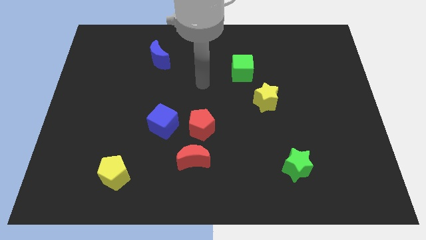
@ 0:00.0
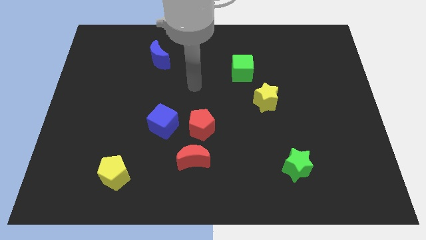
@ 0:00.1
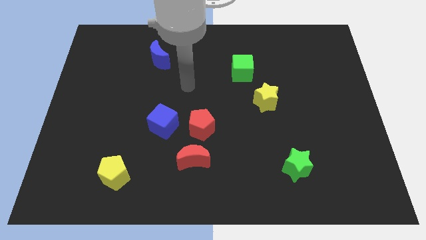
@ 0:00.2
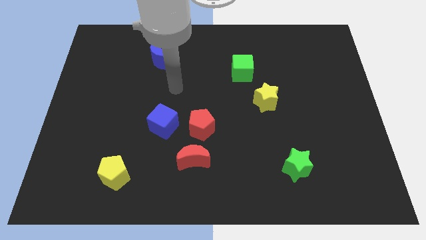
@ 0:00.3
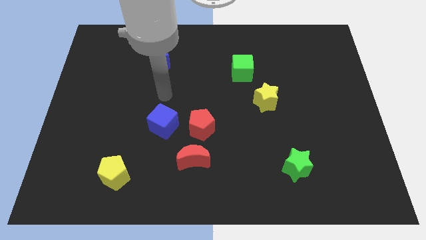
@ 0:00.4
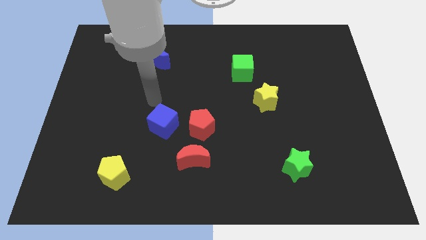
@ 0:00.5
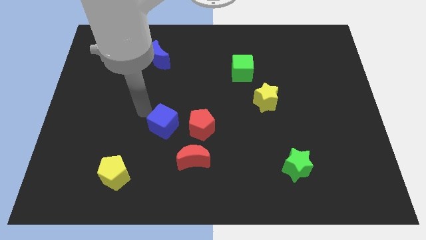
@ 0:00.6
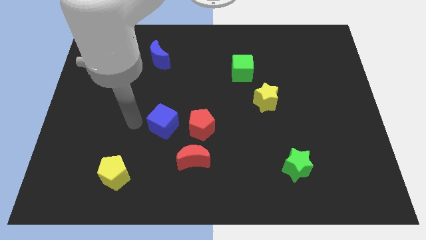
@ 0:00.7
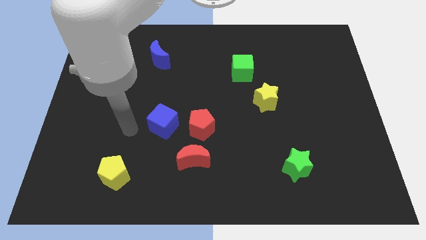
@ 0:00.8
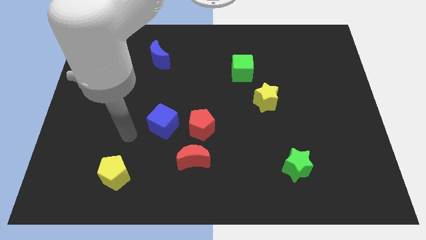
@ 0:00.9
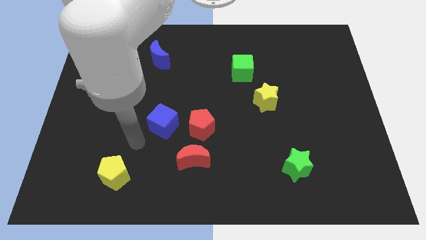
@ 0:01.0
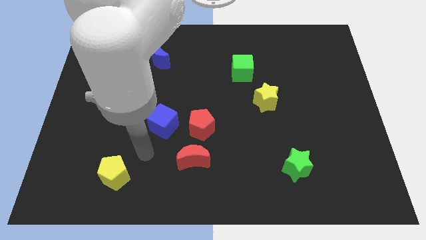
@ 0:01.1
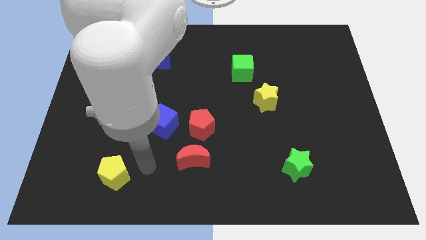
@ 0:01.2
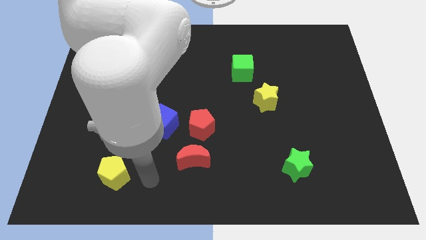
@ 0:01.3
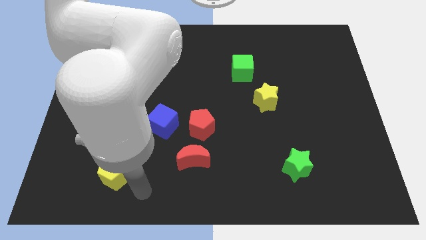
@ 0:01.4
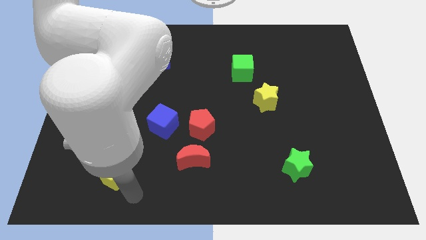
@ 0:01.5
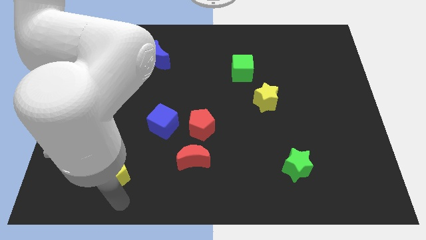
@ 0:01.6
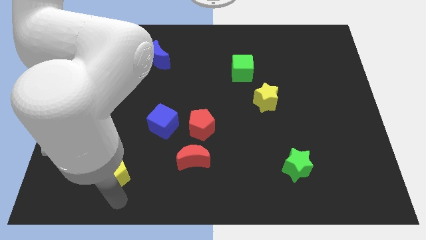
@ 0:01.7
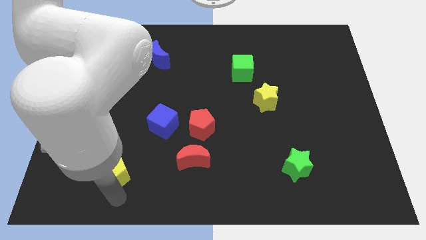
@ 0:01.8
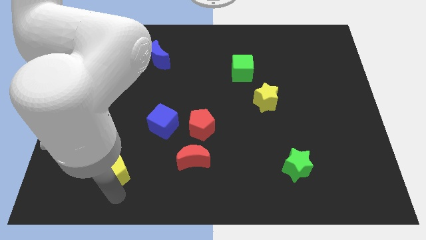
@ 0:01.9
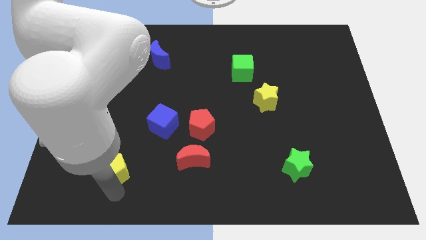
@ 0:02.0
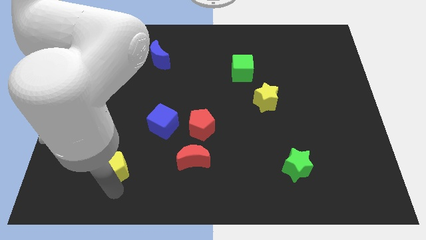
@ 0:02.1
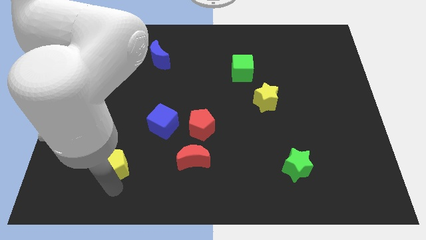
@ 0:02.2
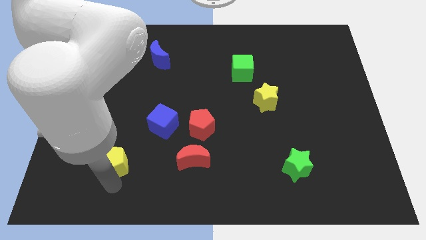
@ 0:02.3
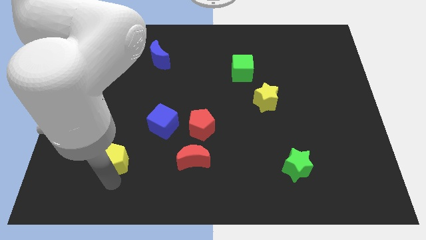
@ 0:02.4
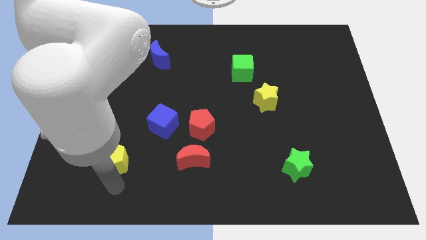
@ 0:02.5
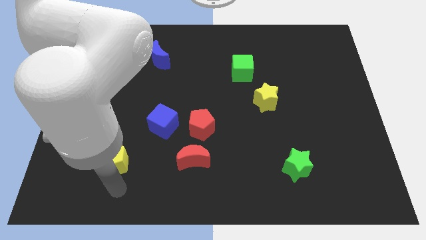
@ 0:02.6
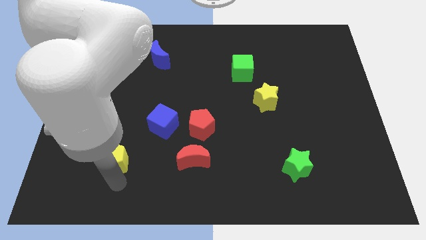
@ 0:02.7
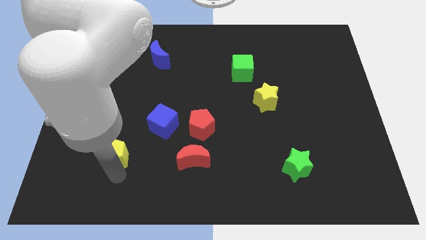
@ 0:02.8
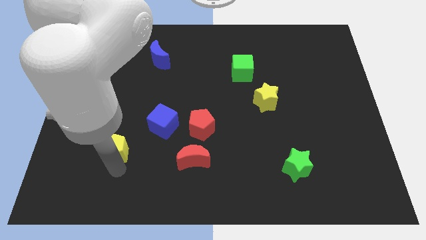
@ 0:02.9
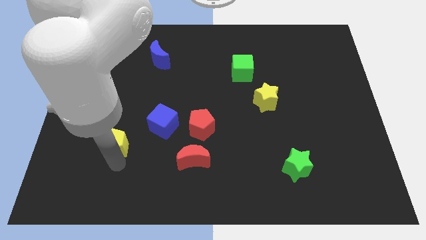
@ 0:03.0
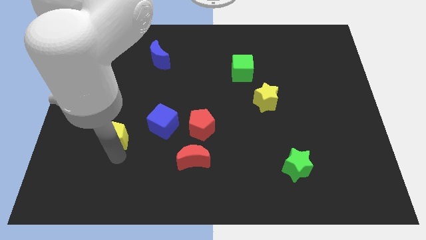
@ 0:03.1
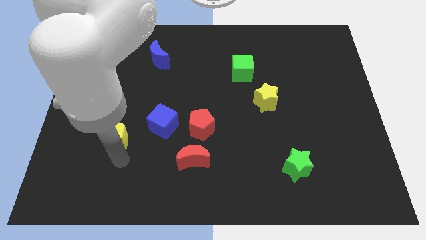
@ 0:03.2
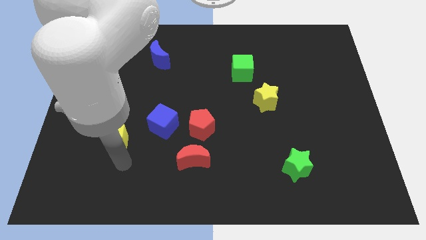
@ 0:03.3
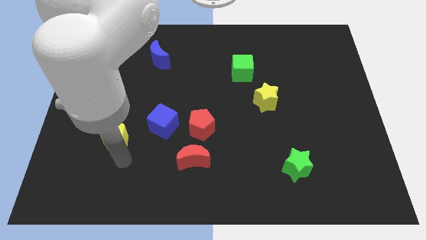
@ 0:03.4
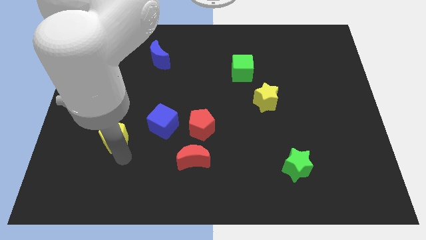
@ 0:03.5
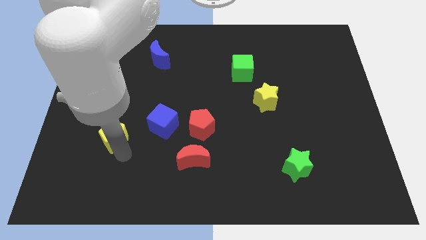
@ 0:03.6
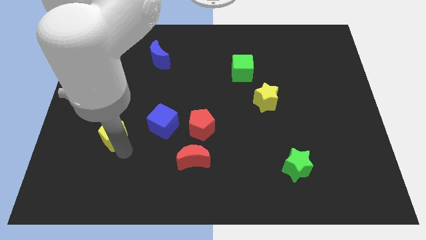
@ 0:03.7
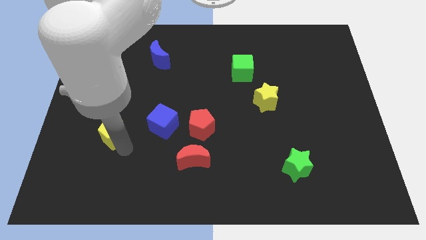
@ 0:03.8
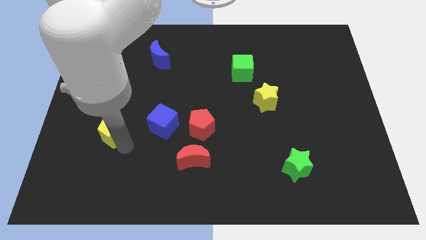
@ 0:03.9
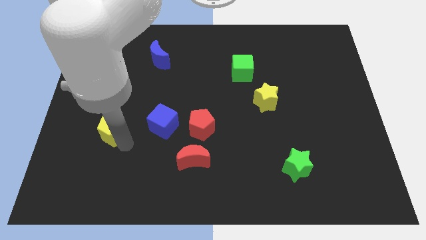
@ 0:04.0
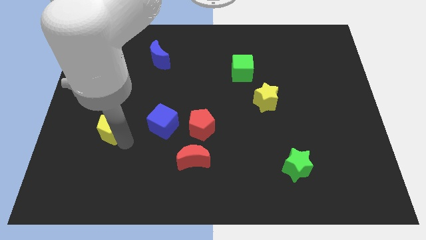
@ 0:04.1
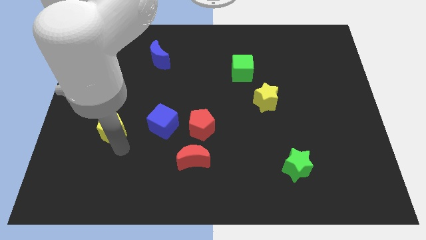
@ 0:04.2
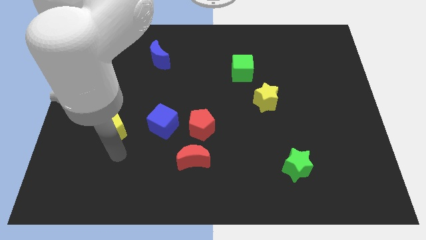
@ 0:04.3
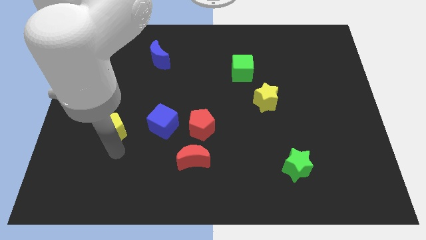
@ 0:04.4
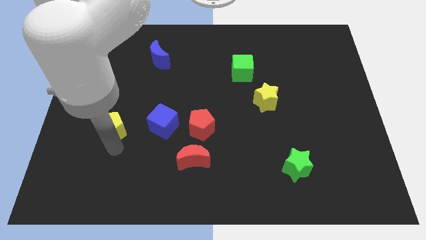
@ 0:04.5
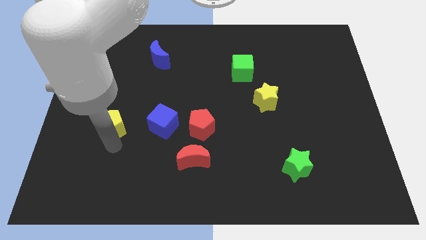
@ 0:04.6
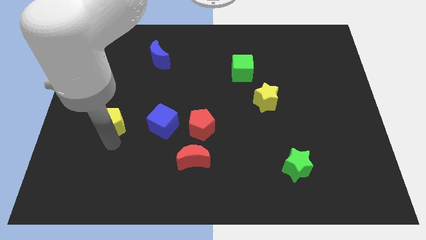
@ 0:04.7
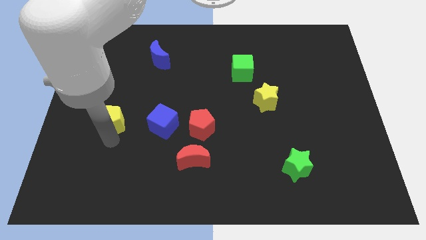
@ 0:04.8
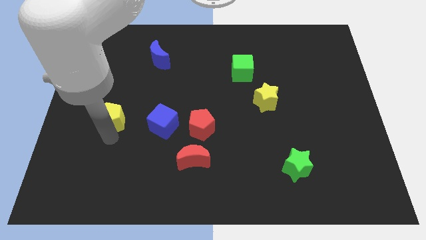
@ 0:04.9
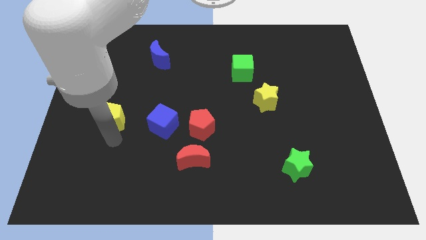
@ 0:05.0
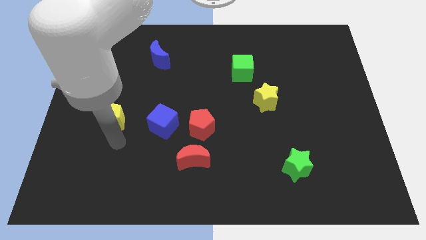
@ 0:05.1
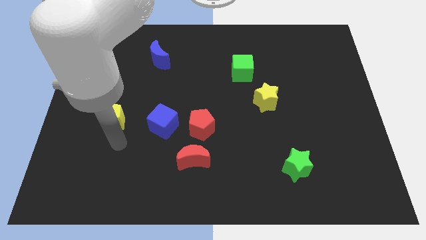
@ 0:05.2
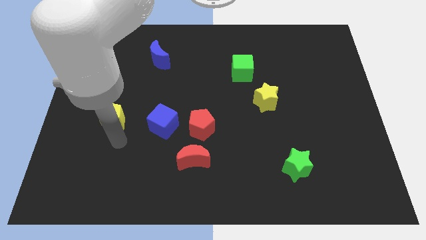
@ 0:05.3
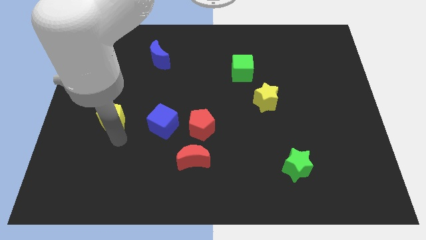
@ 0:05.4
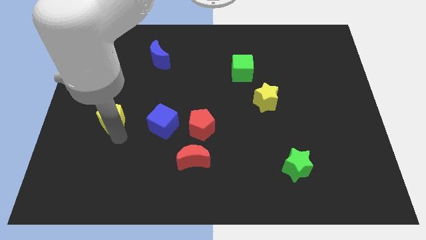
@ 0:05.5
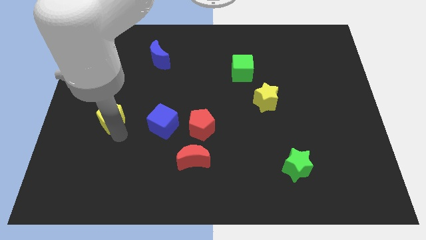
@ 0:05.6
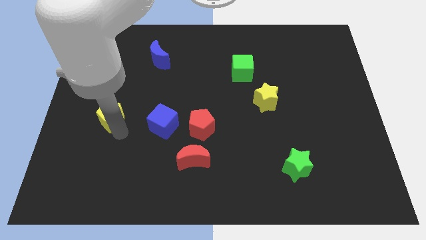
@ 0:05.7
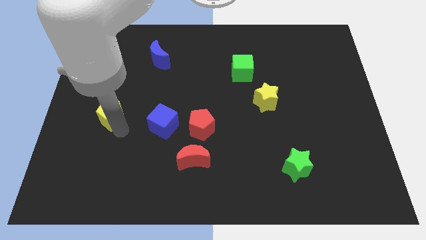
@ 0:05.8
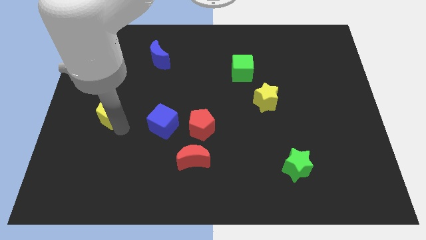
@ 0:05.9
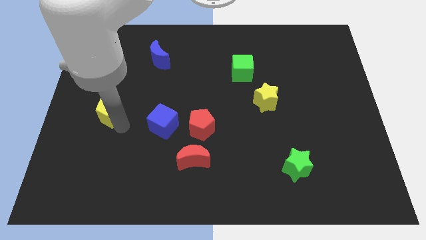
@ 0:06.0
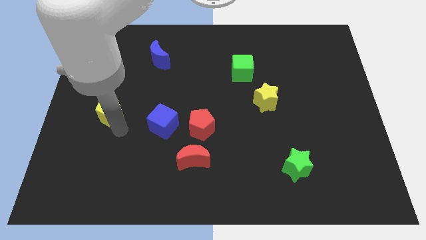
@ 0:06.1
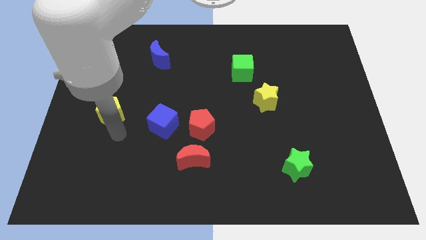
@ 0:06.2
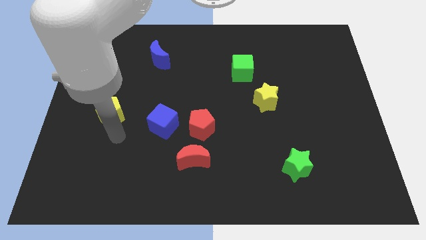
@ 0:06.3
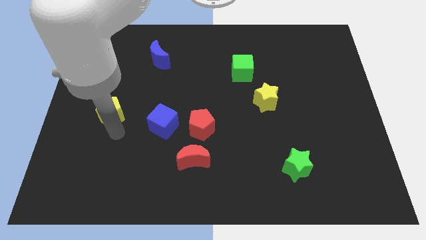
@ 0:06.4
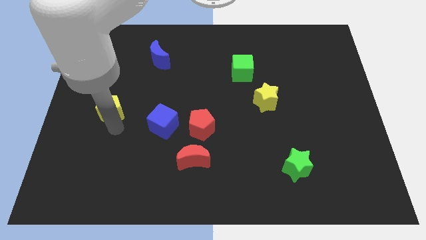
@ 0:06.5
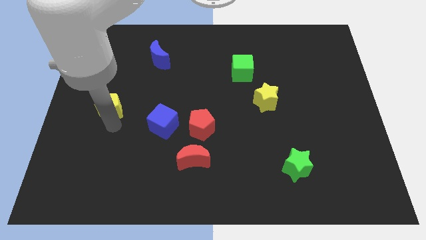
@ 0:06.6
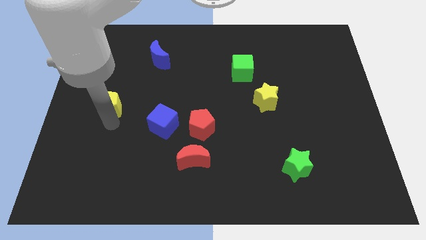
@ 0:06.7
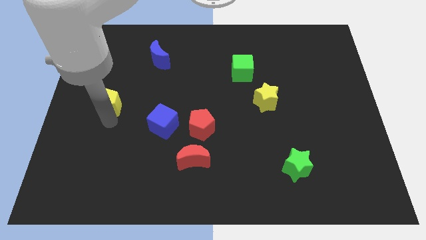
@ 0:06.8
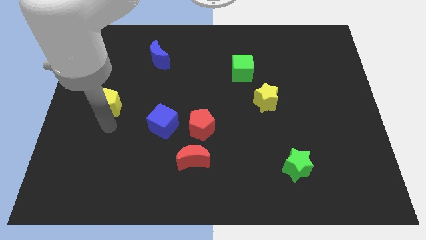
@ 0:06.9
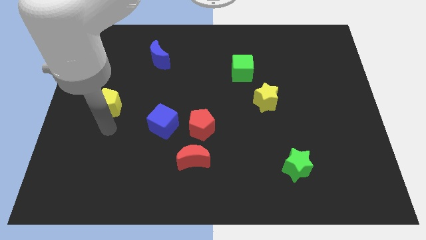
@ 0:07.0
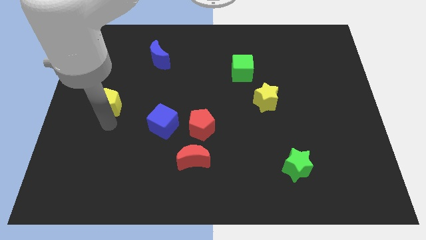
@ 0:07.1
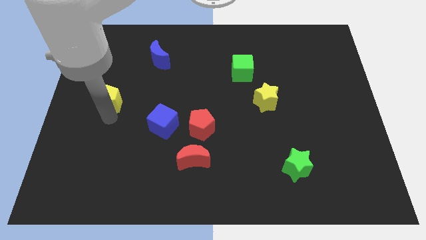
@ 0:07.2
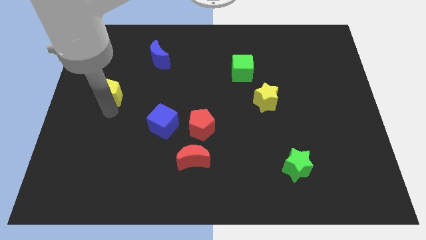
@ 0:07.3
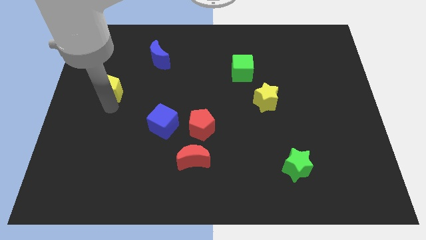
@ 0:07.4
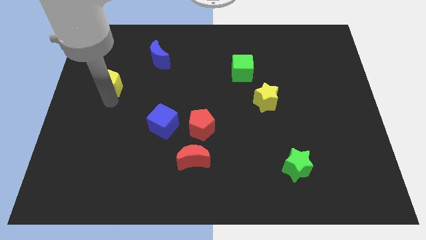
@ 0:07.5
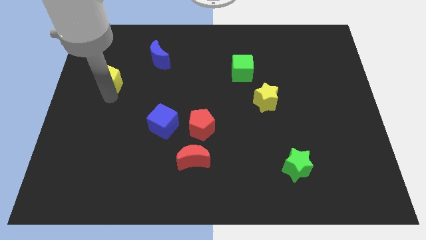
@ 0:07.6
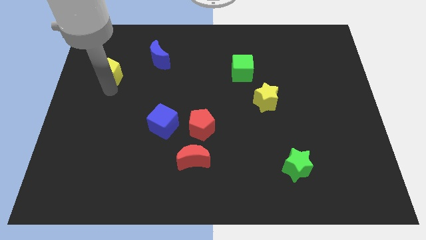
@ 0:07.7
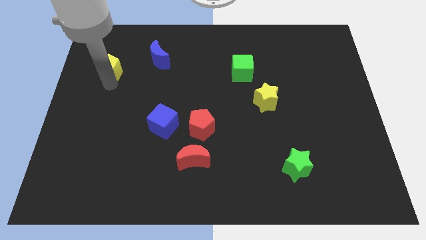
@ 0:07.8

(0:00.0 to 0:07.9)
slide the yellow pentagon just left of the blue moon
